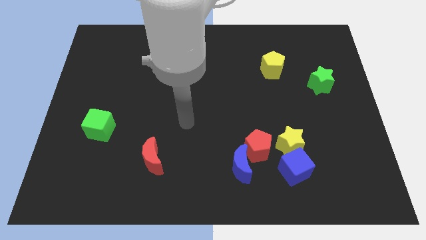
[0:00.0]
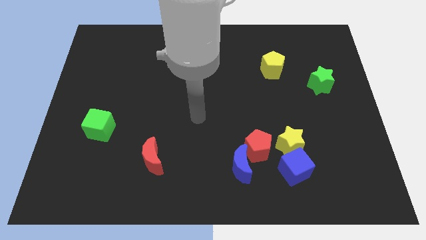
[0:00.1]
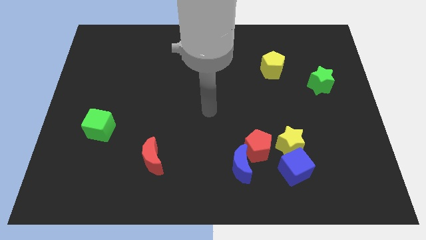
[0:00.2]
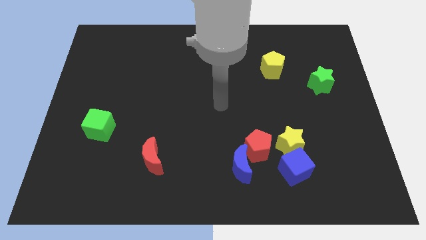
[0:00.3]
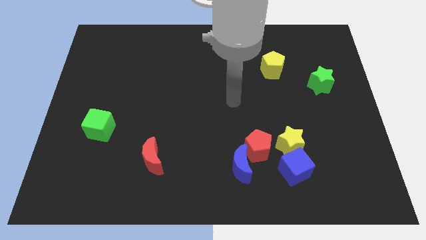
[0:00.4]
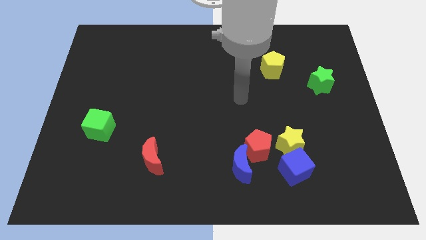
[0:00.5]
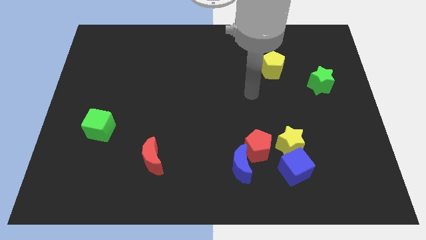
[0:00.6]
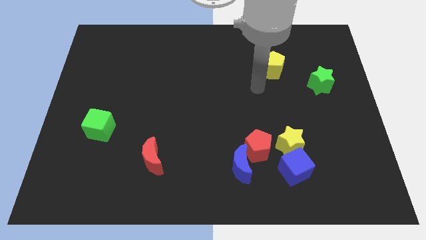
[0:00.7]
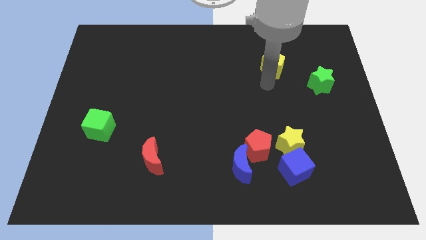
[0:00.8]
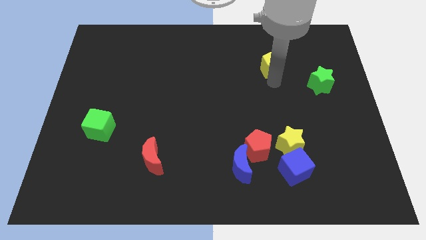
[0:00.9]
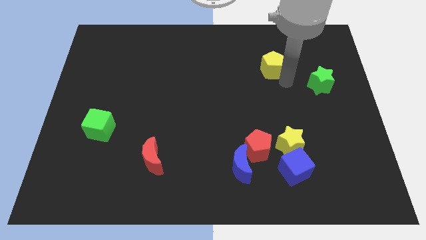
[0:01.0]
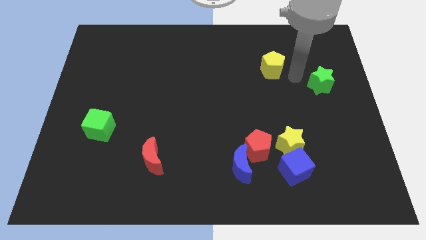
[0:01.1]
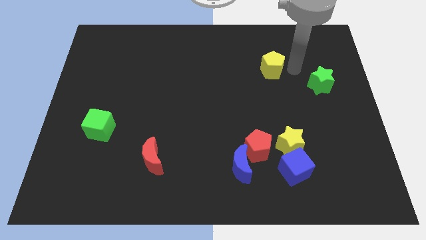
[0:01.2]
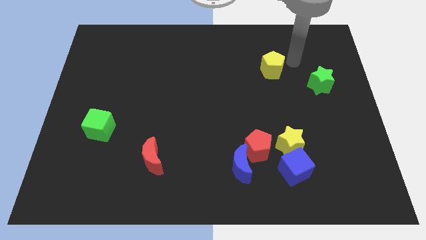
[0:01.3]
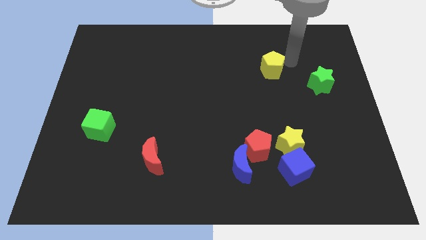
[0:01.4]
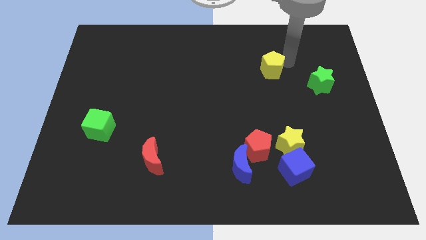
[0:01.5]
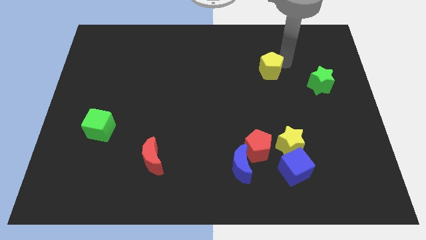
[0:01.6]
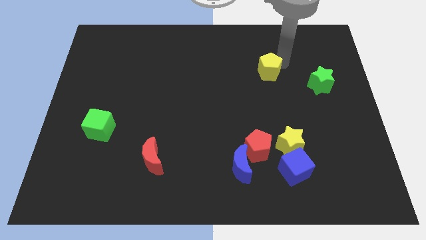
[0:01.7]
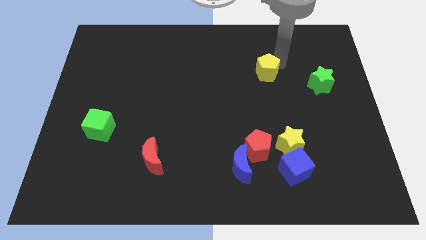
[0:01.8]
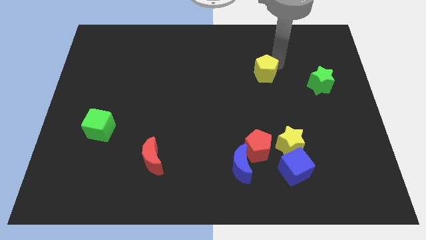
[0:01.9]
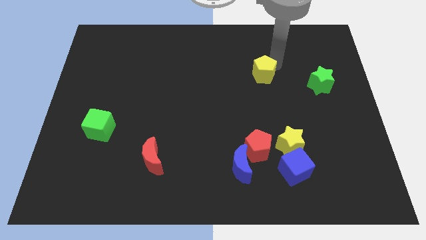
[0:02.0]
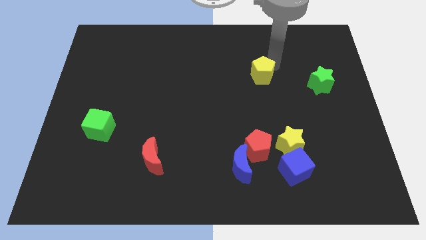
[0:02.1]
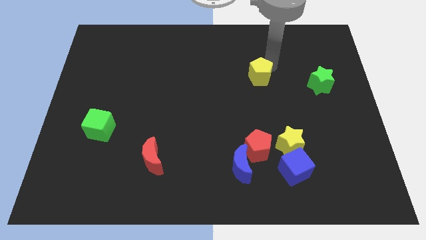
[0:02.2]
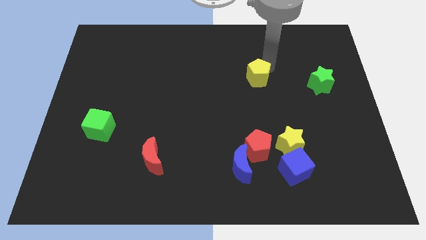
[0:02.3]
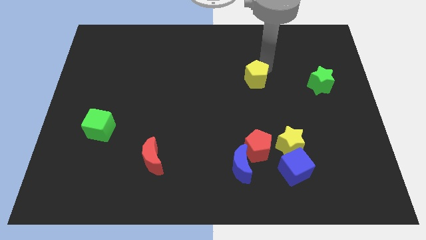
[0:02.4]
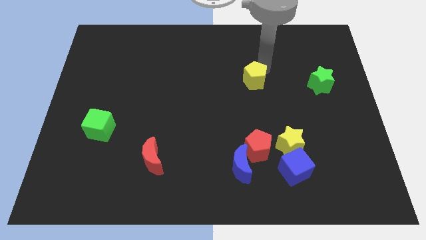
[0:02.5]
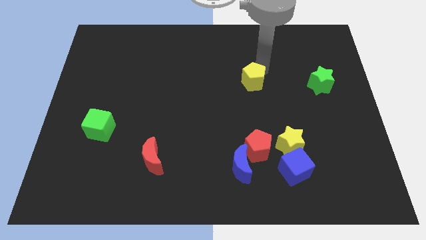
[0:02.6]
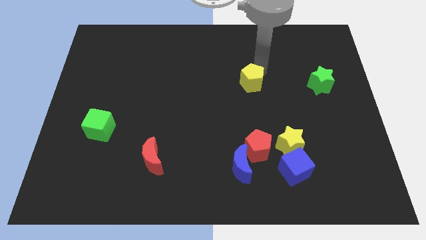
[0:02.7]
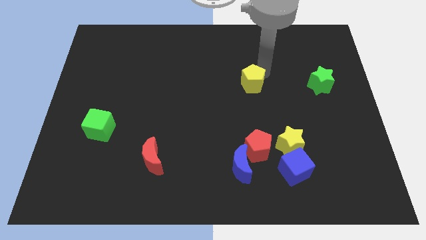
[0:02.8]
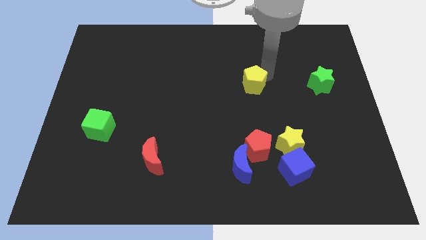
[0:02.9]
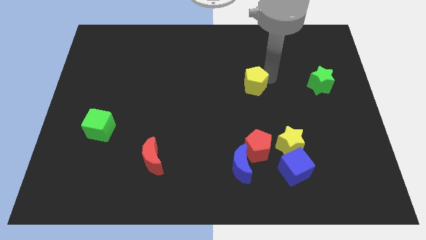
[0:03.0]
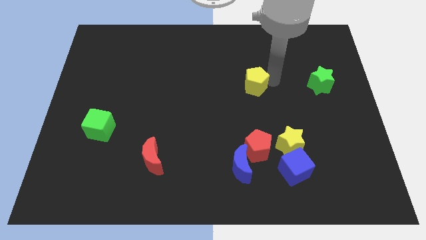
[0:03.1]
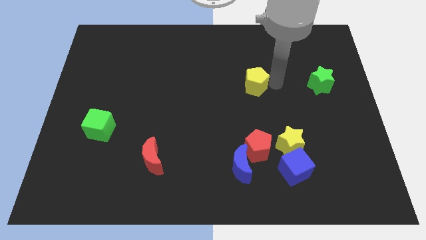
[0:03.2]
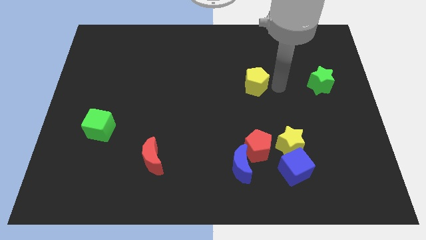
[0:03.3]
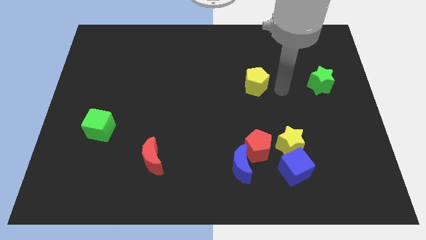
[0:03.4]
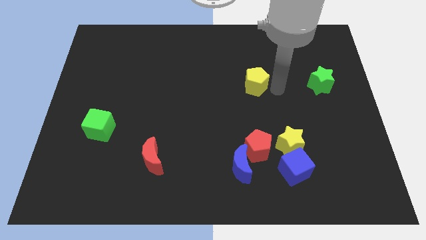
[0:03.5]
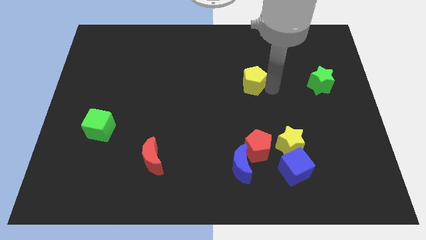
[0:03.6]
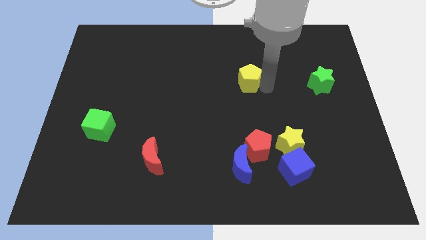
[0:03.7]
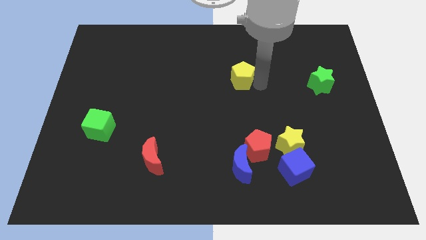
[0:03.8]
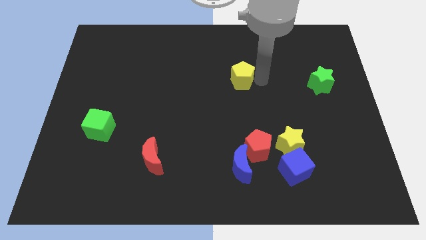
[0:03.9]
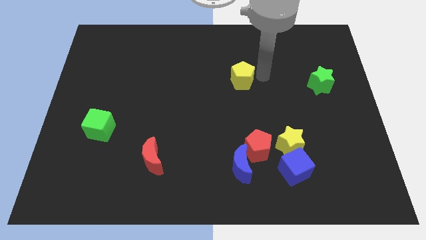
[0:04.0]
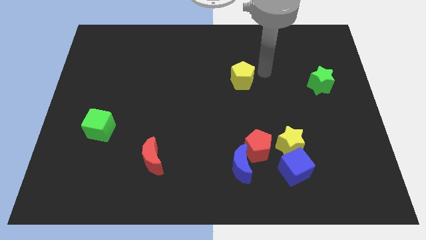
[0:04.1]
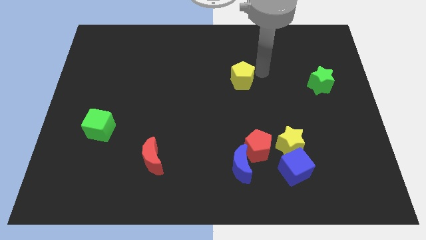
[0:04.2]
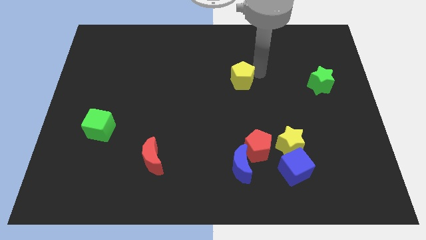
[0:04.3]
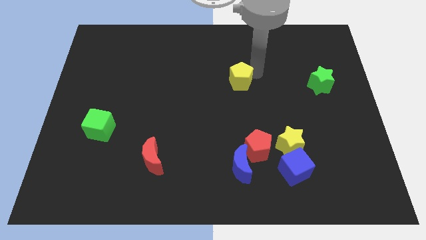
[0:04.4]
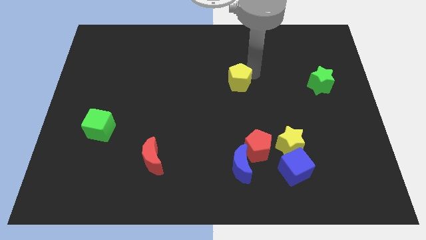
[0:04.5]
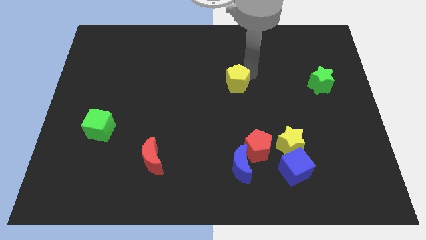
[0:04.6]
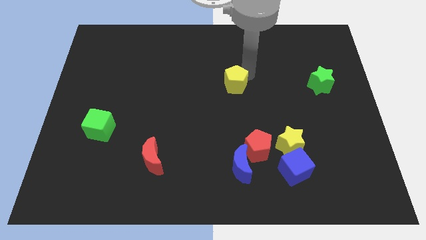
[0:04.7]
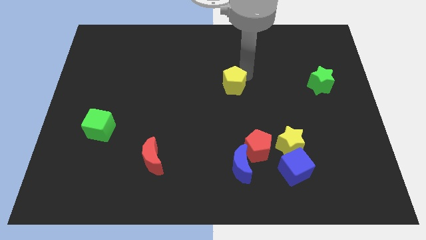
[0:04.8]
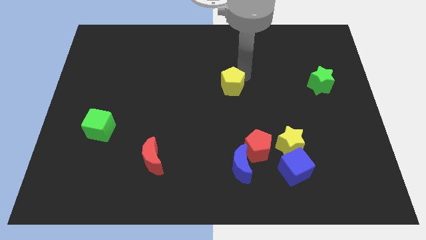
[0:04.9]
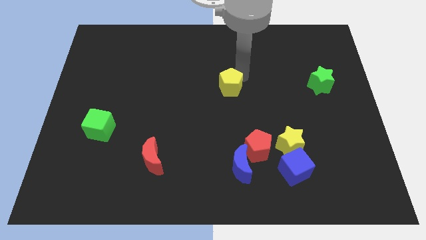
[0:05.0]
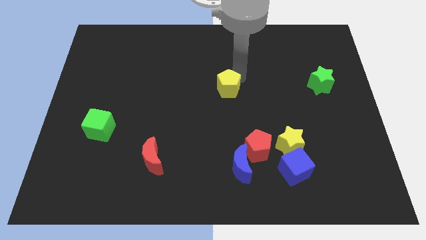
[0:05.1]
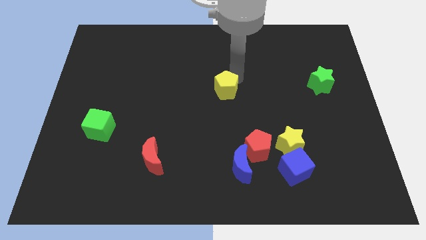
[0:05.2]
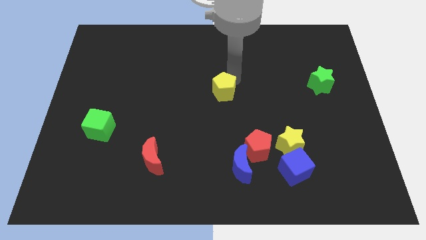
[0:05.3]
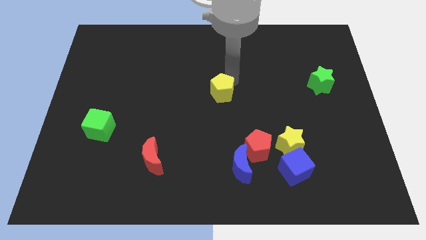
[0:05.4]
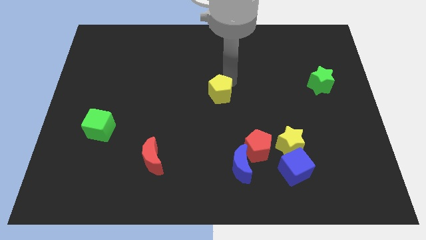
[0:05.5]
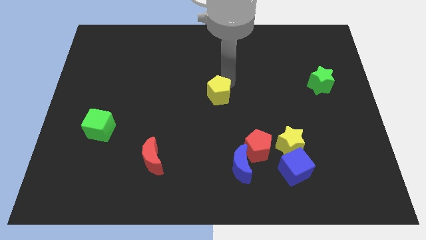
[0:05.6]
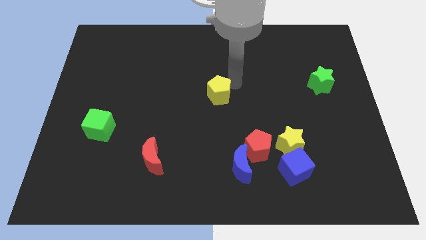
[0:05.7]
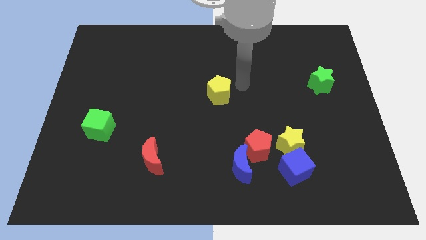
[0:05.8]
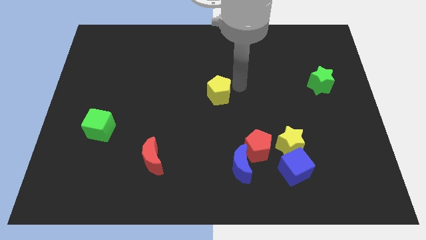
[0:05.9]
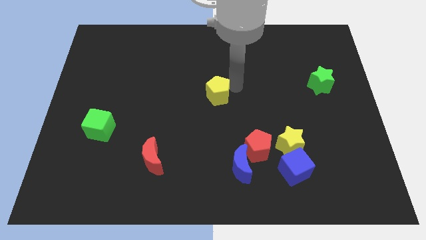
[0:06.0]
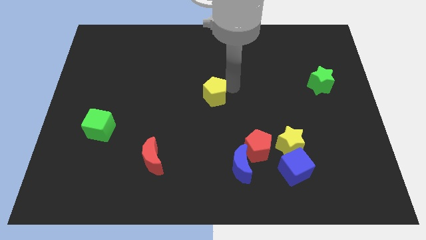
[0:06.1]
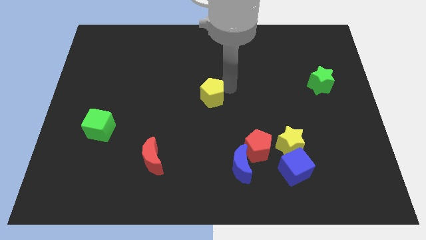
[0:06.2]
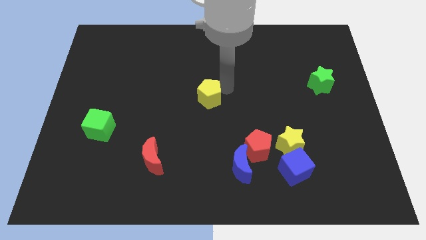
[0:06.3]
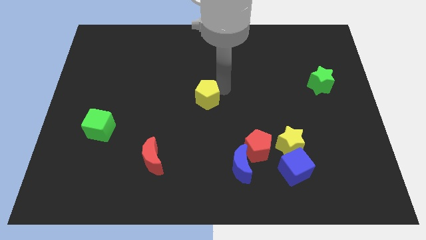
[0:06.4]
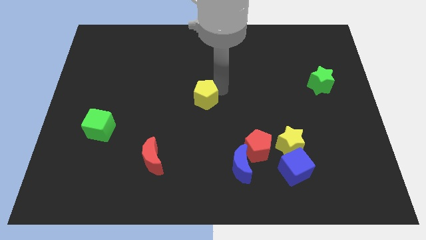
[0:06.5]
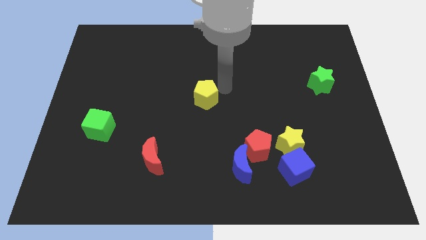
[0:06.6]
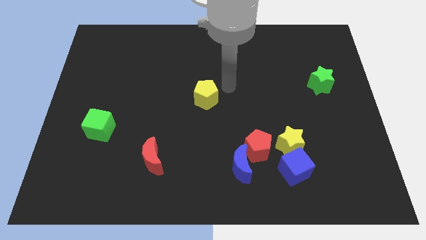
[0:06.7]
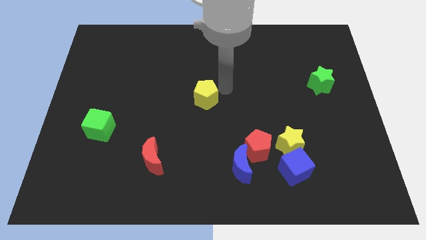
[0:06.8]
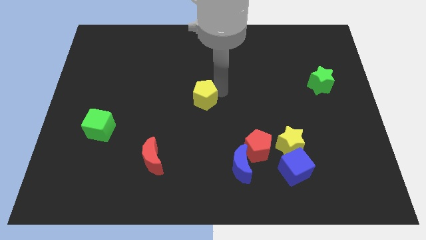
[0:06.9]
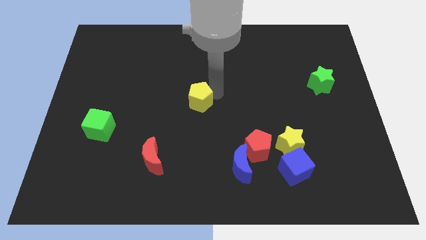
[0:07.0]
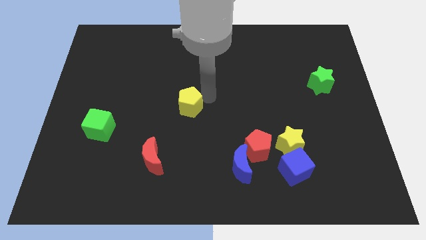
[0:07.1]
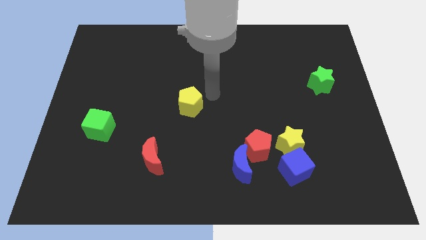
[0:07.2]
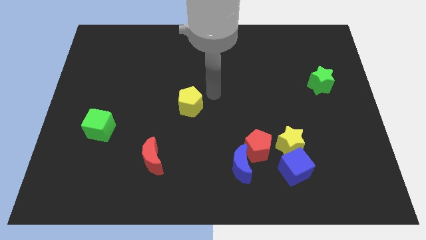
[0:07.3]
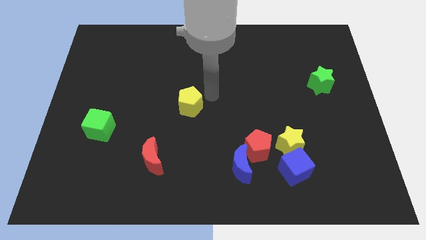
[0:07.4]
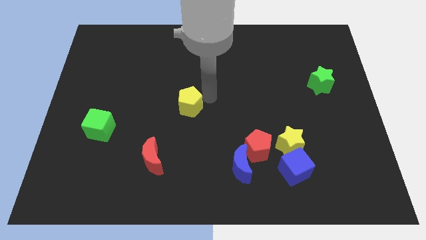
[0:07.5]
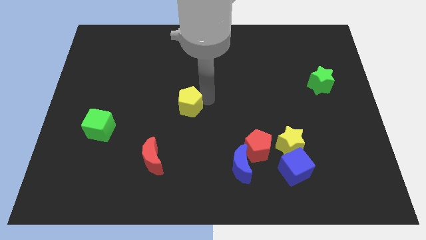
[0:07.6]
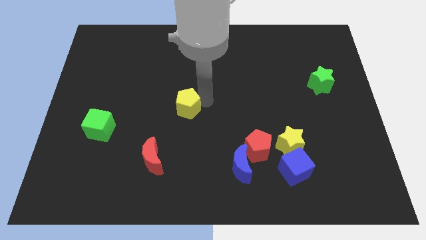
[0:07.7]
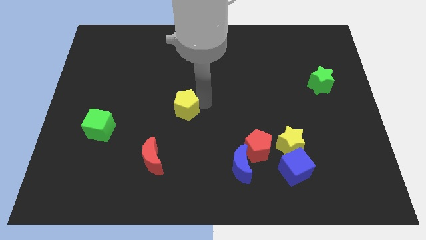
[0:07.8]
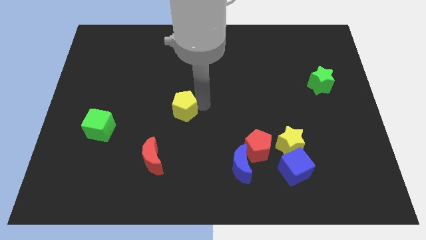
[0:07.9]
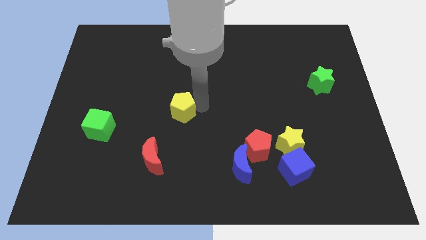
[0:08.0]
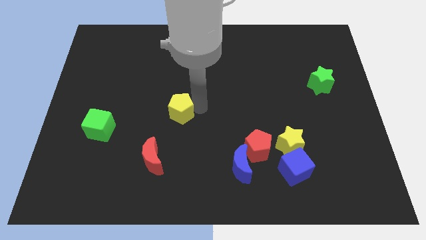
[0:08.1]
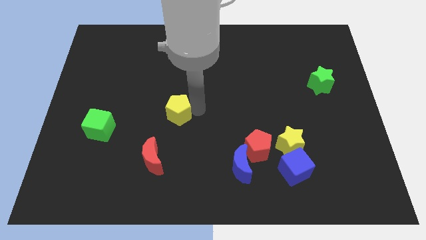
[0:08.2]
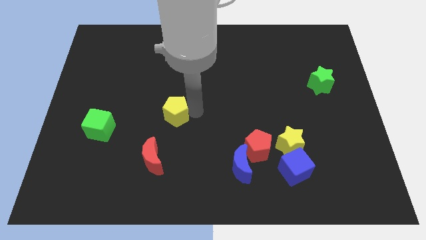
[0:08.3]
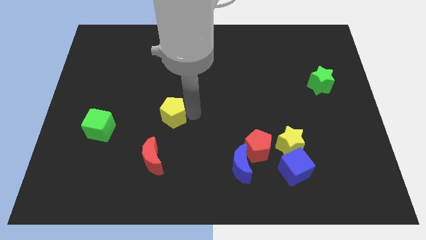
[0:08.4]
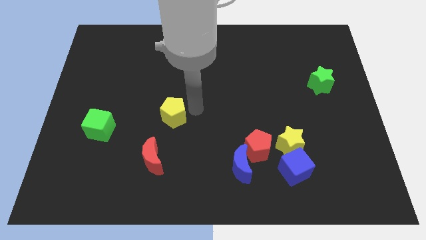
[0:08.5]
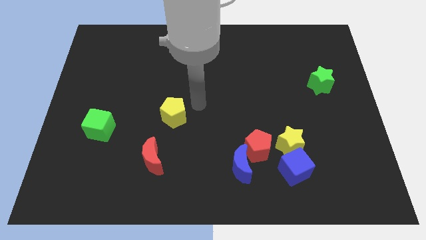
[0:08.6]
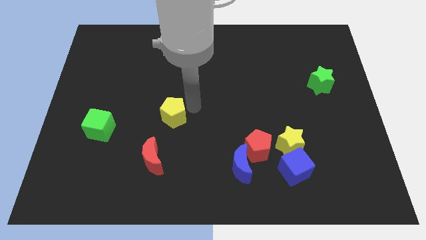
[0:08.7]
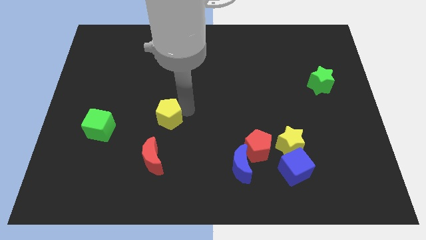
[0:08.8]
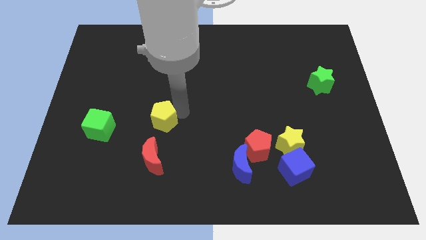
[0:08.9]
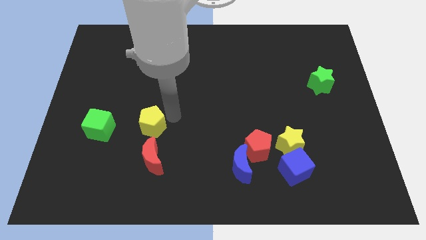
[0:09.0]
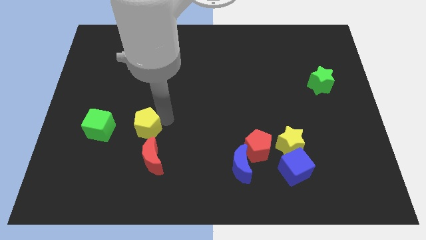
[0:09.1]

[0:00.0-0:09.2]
push the yellow pentagon to the top left side of the red moon
